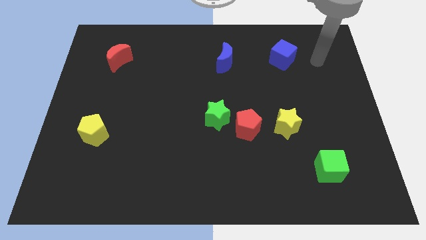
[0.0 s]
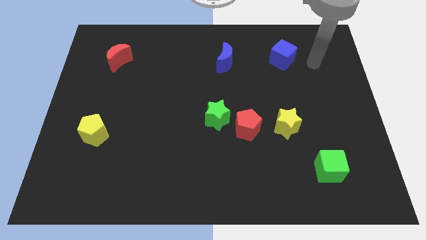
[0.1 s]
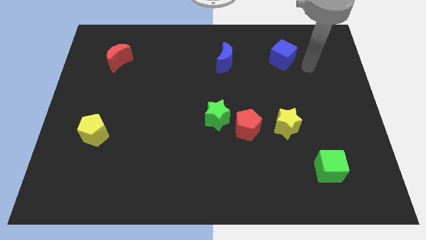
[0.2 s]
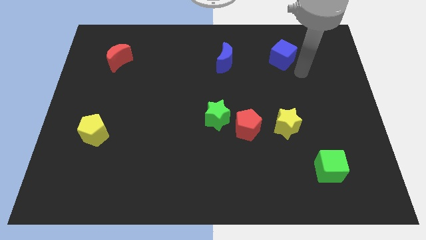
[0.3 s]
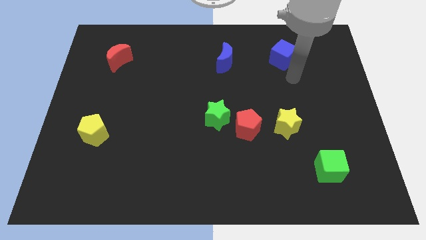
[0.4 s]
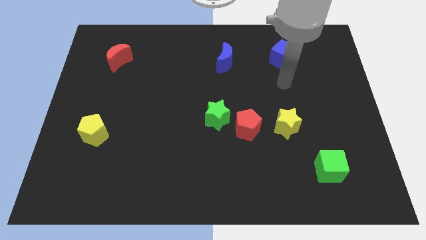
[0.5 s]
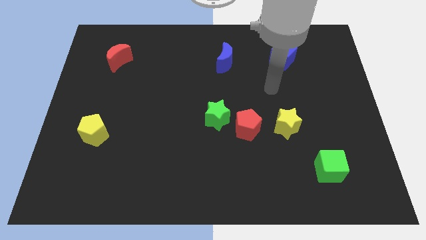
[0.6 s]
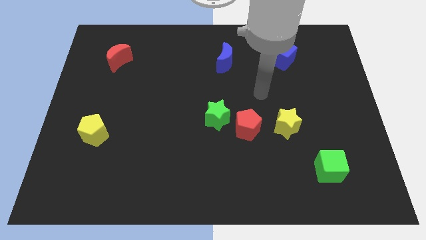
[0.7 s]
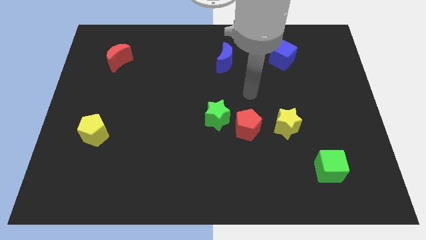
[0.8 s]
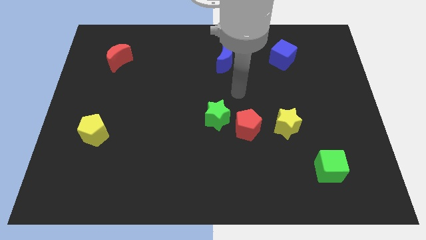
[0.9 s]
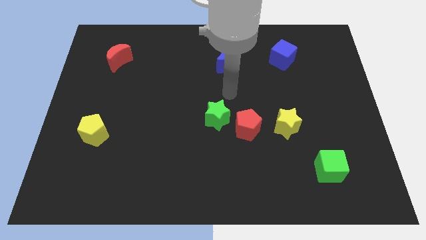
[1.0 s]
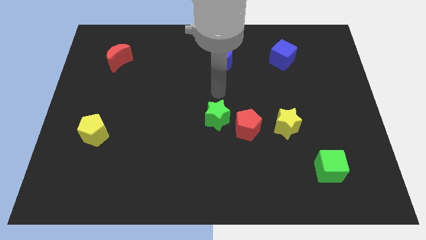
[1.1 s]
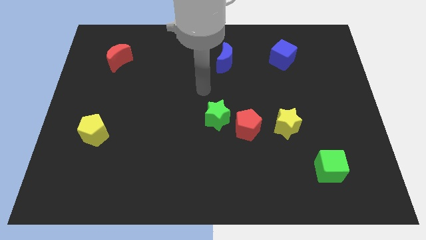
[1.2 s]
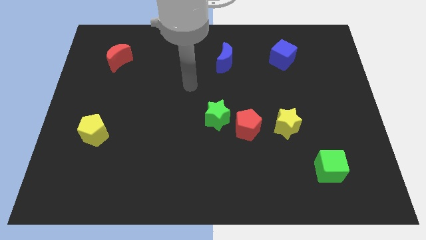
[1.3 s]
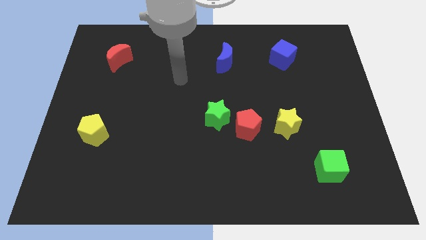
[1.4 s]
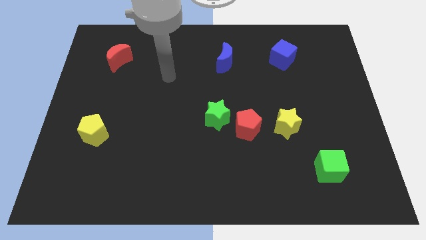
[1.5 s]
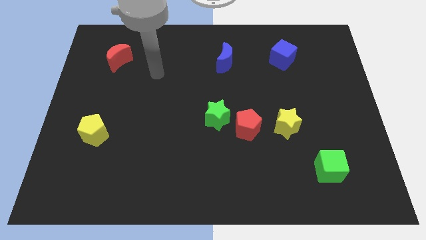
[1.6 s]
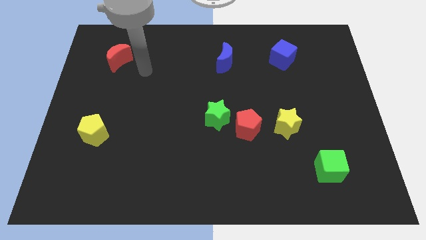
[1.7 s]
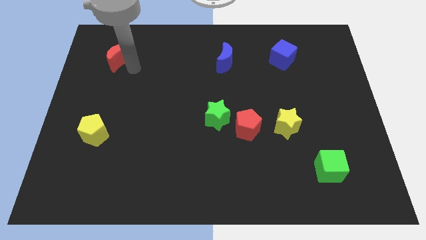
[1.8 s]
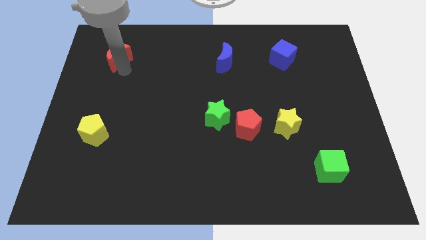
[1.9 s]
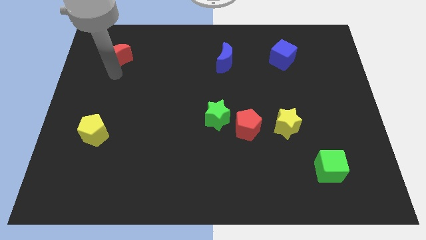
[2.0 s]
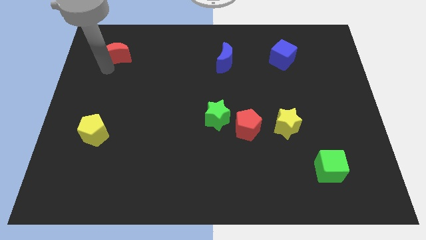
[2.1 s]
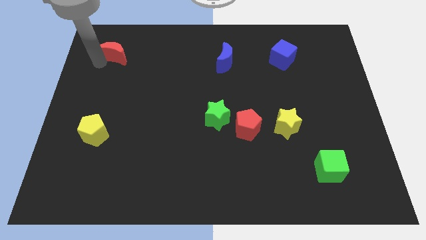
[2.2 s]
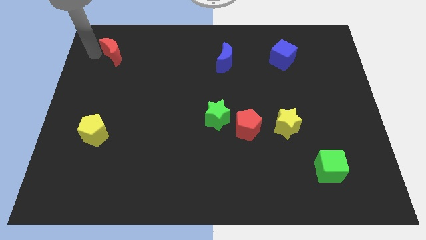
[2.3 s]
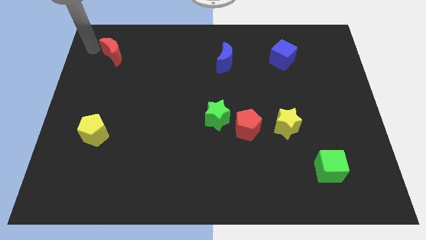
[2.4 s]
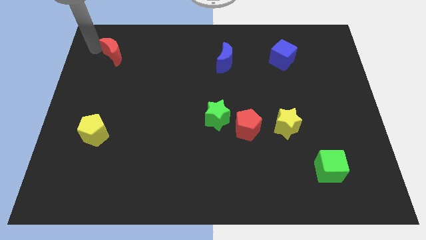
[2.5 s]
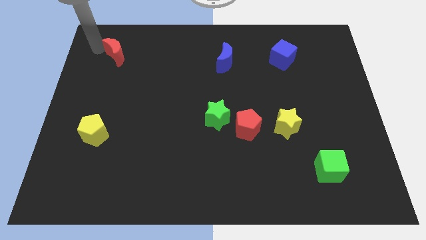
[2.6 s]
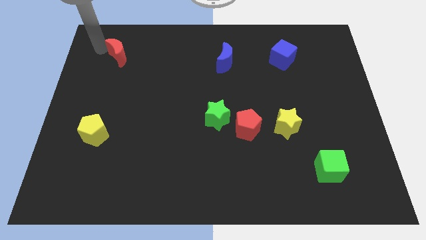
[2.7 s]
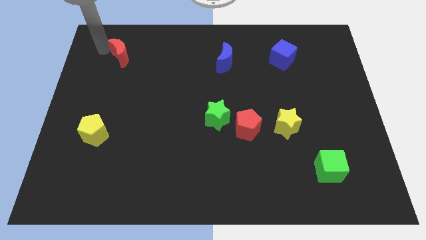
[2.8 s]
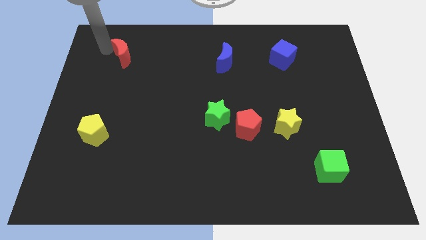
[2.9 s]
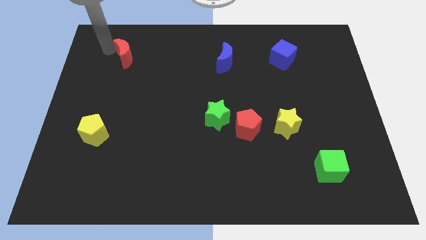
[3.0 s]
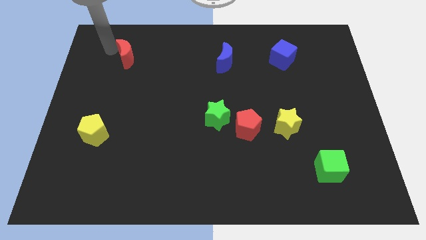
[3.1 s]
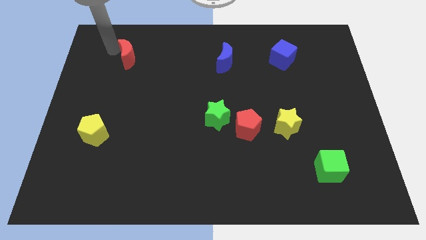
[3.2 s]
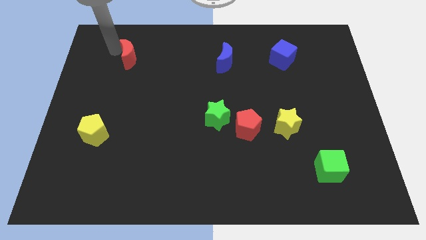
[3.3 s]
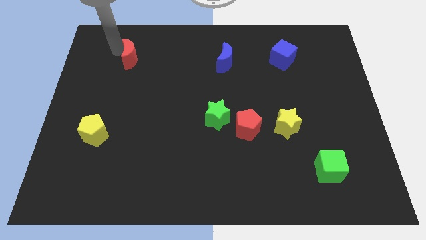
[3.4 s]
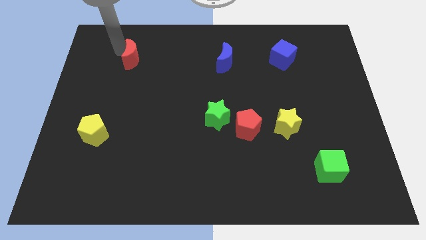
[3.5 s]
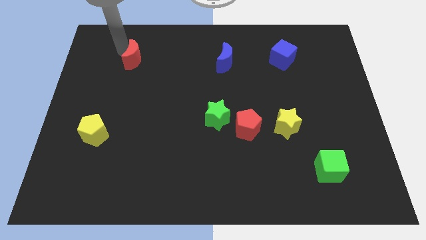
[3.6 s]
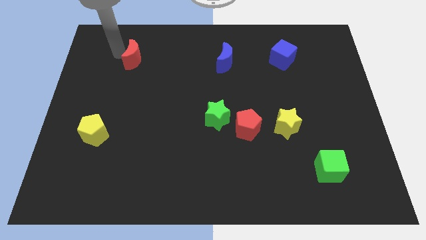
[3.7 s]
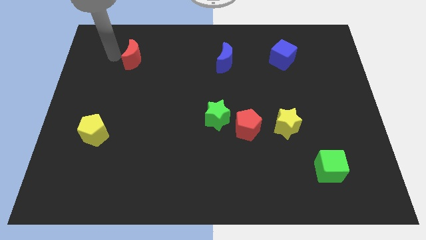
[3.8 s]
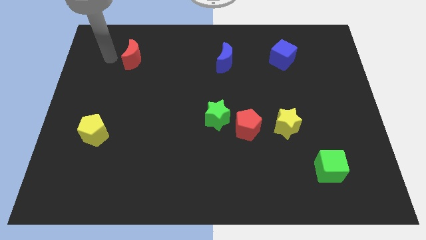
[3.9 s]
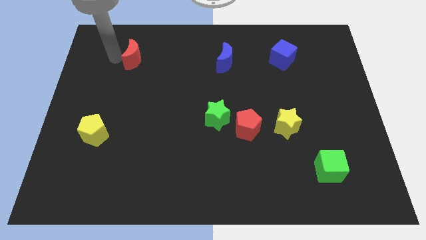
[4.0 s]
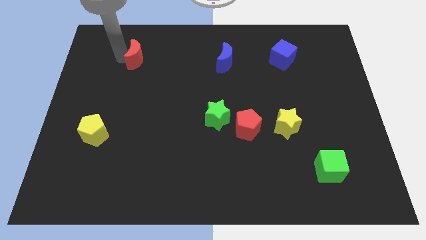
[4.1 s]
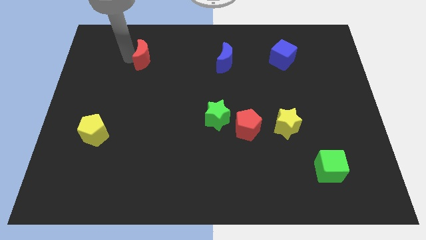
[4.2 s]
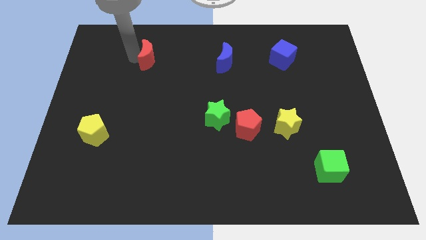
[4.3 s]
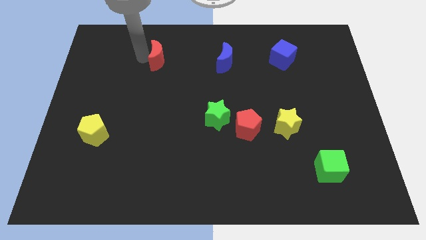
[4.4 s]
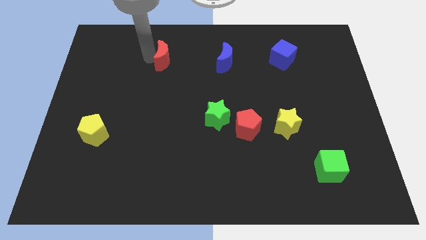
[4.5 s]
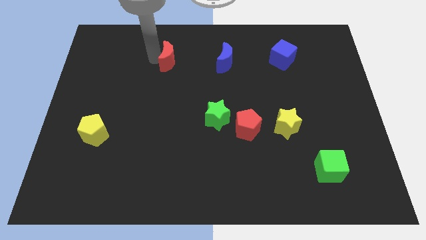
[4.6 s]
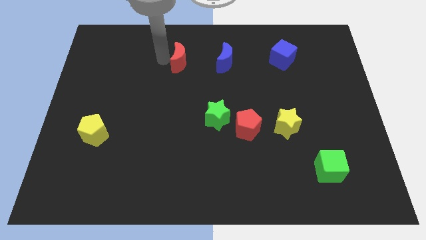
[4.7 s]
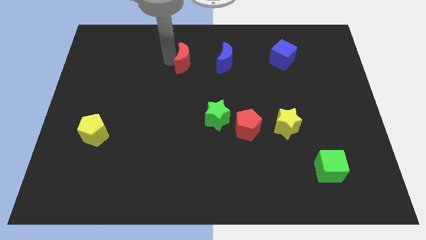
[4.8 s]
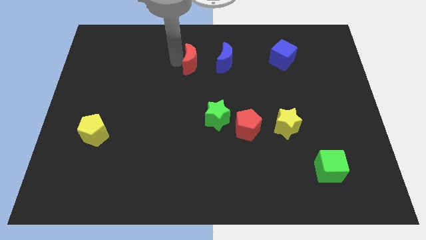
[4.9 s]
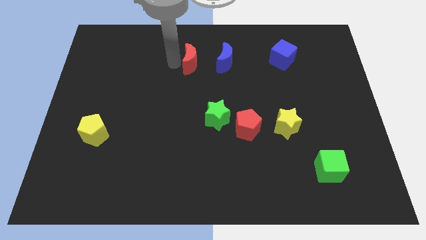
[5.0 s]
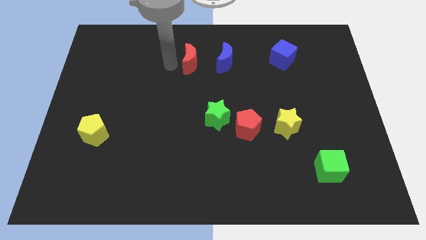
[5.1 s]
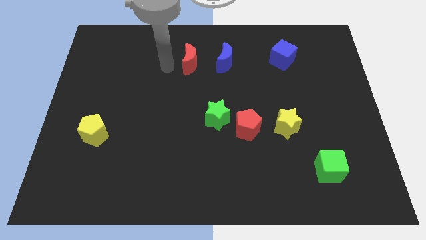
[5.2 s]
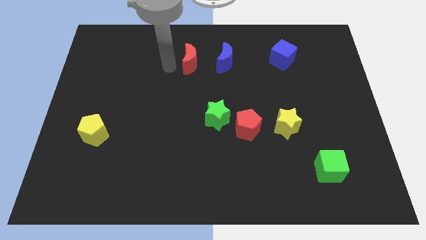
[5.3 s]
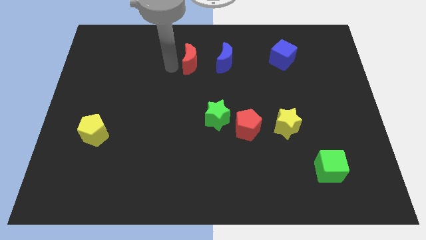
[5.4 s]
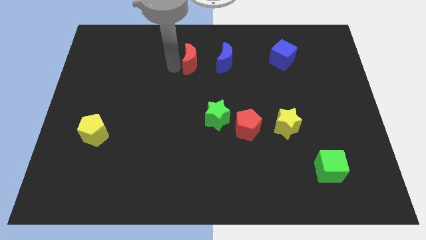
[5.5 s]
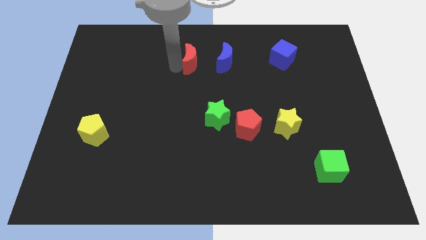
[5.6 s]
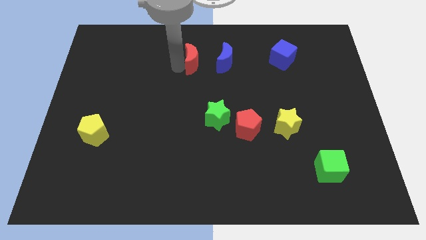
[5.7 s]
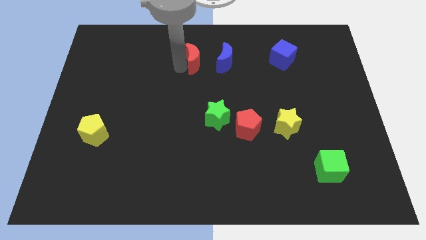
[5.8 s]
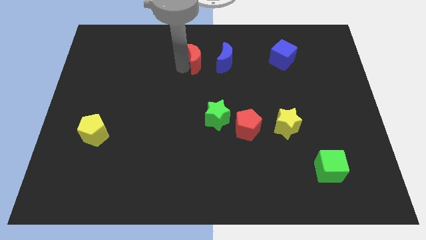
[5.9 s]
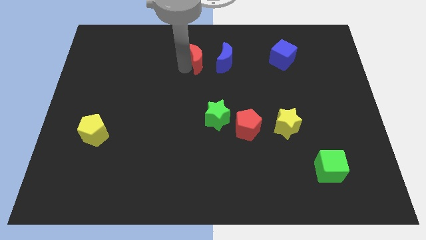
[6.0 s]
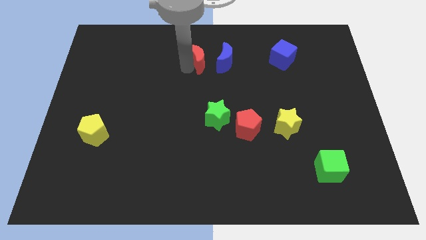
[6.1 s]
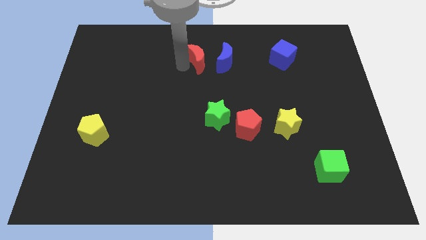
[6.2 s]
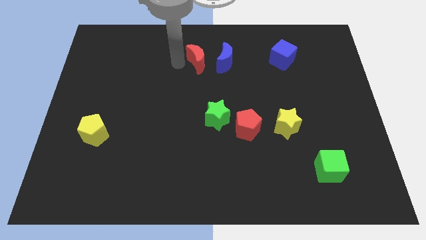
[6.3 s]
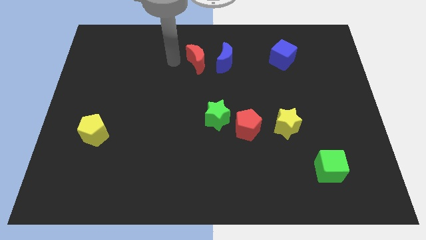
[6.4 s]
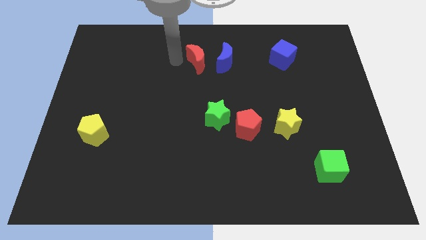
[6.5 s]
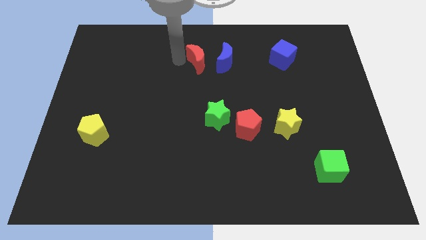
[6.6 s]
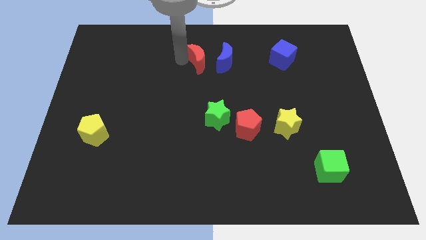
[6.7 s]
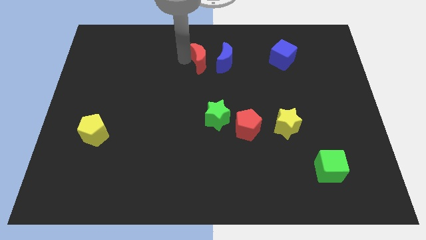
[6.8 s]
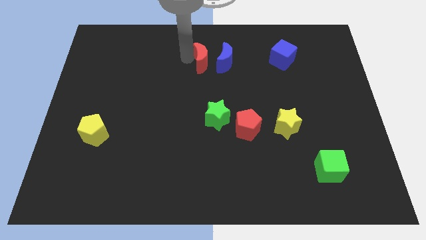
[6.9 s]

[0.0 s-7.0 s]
move the red moon to the blue moon
